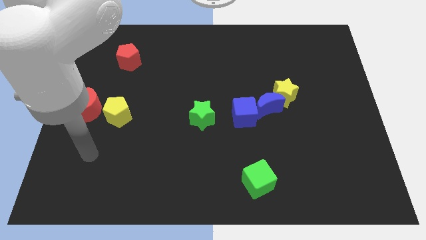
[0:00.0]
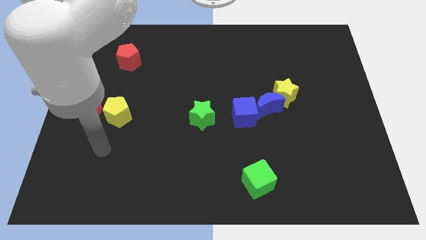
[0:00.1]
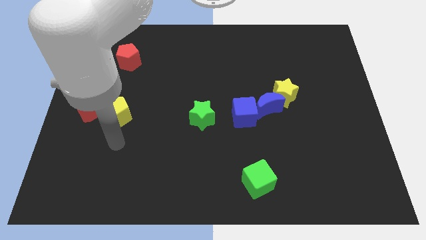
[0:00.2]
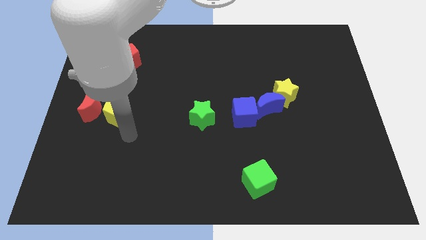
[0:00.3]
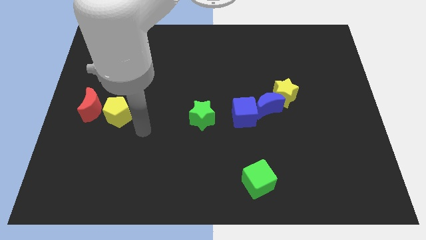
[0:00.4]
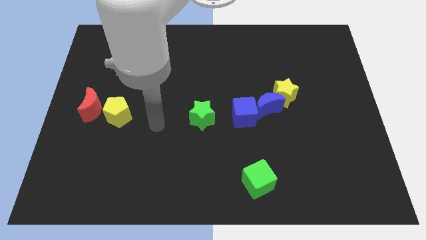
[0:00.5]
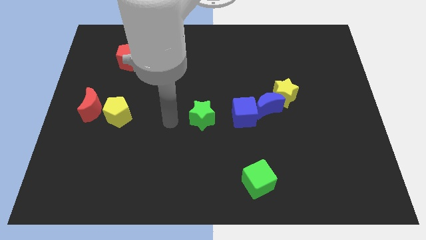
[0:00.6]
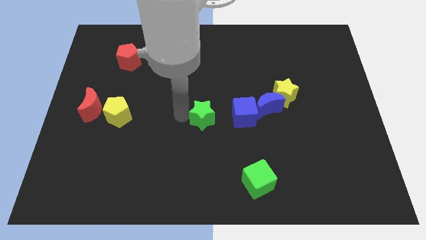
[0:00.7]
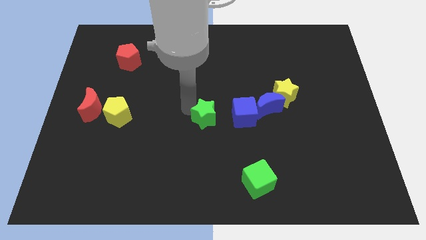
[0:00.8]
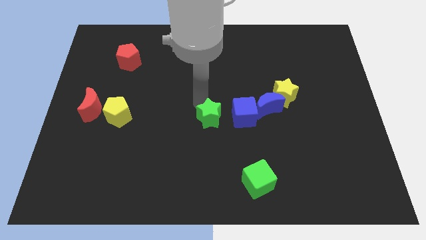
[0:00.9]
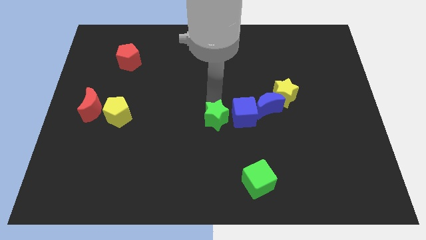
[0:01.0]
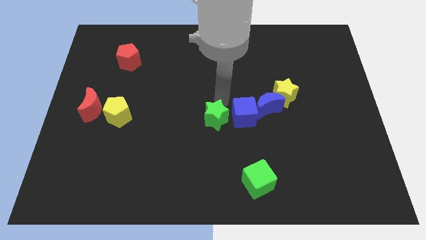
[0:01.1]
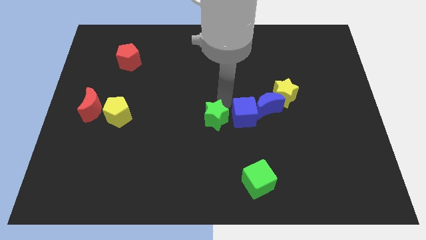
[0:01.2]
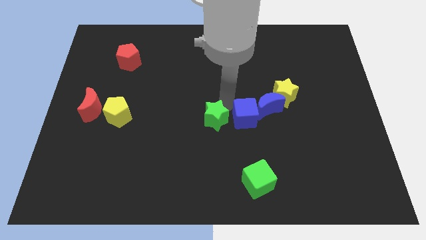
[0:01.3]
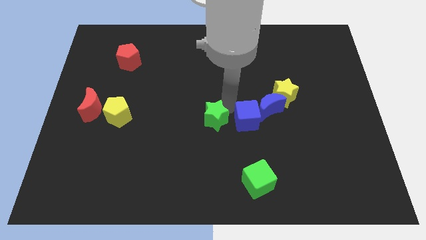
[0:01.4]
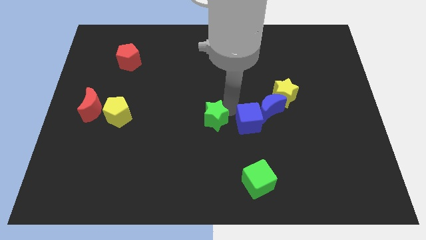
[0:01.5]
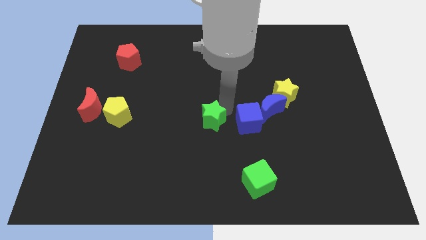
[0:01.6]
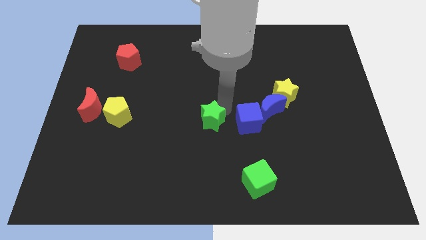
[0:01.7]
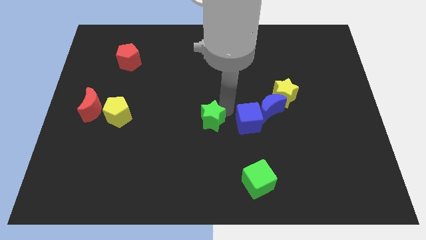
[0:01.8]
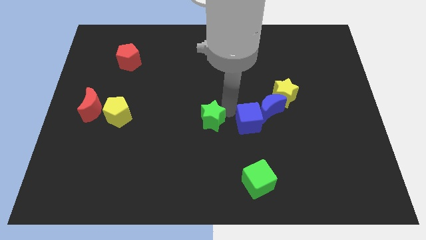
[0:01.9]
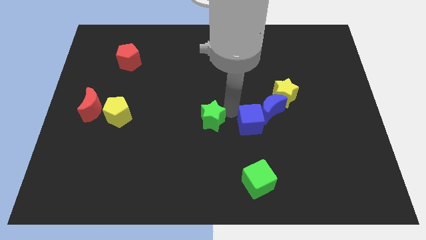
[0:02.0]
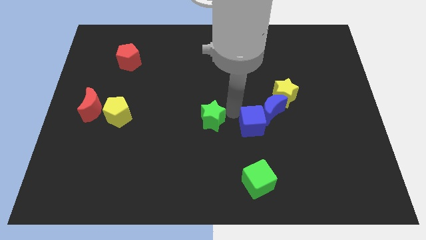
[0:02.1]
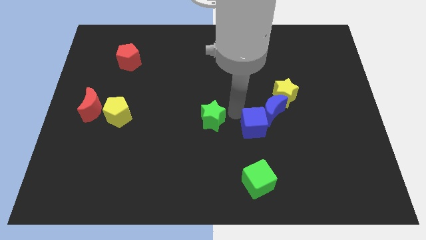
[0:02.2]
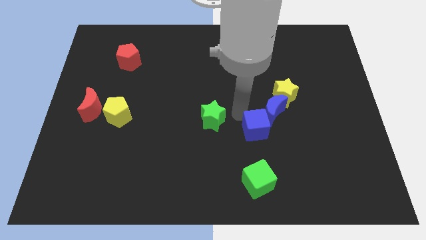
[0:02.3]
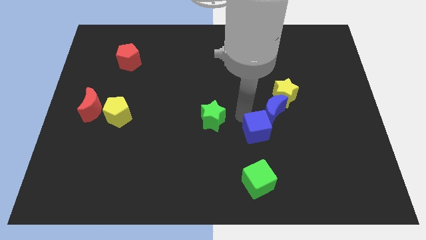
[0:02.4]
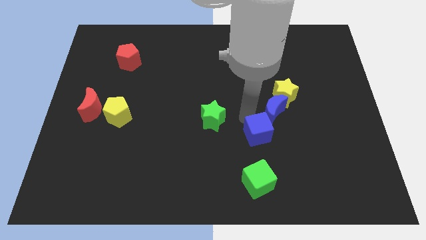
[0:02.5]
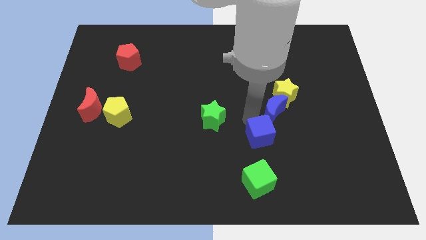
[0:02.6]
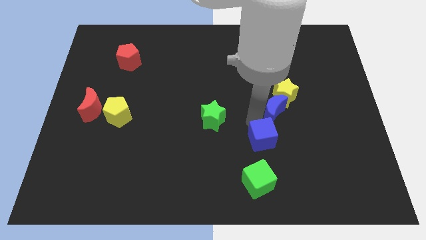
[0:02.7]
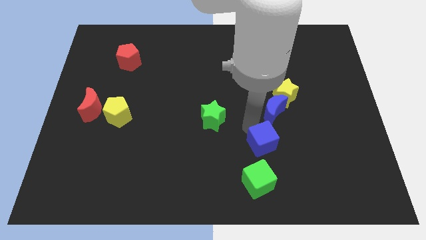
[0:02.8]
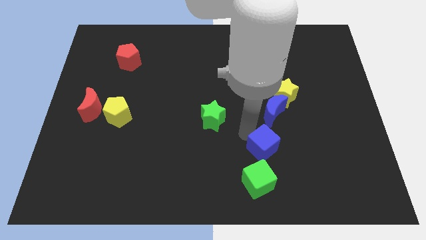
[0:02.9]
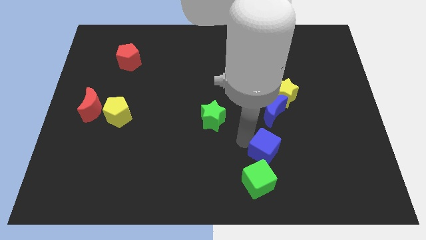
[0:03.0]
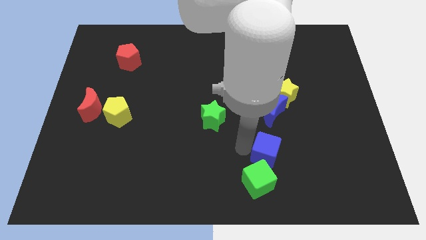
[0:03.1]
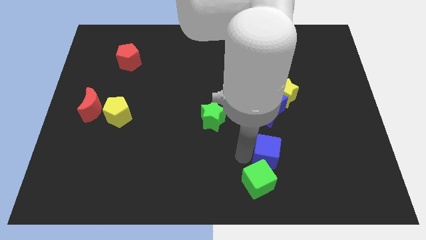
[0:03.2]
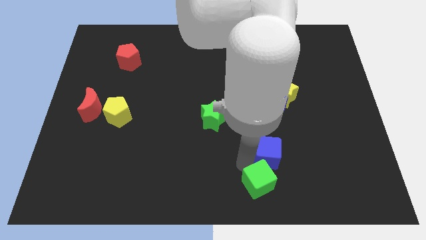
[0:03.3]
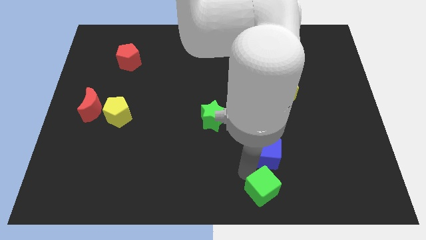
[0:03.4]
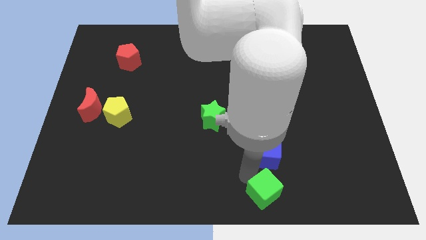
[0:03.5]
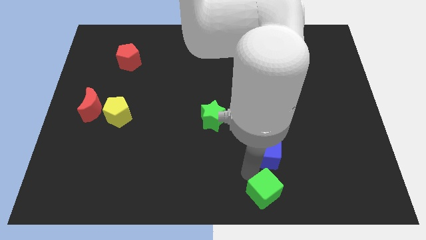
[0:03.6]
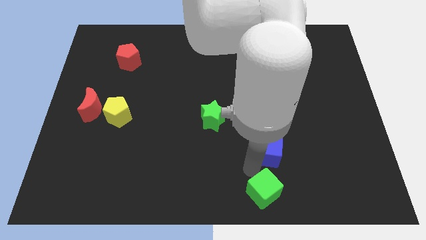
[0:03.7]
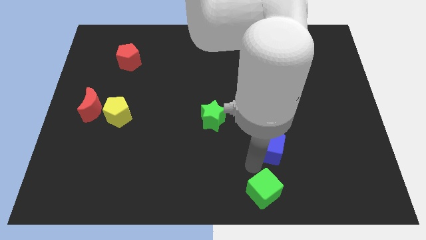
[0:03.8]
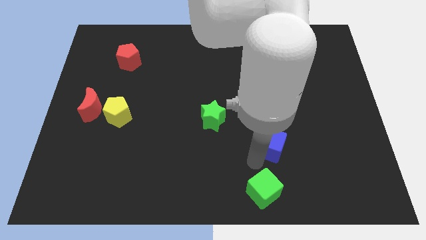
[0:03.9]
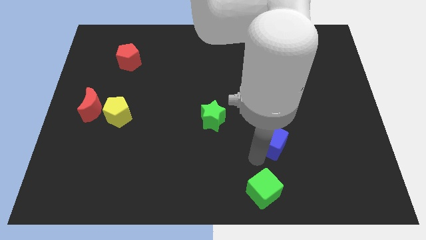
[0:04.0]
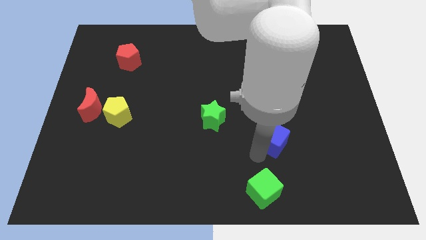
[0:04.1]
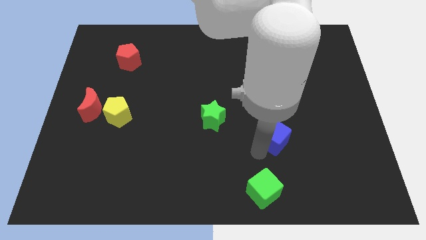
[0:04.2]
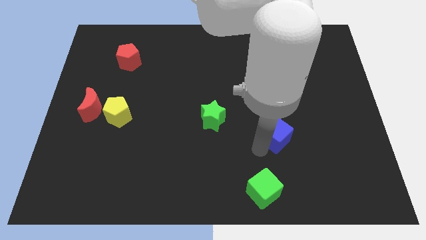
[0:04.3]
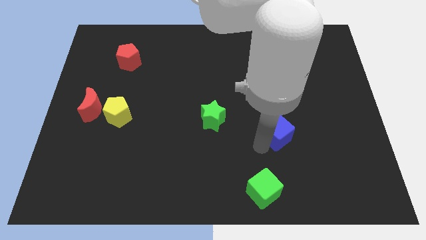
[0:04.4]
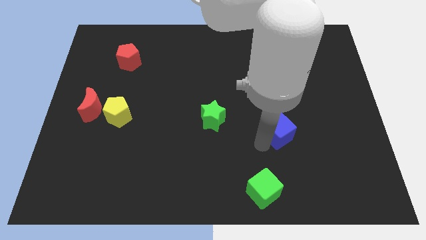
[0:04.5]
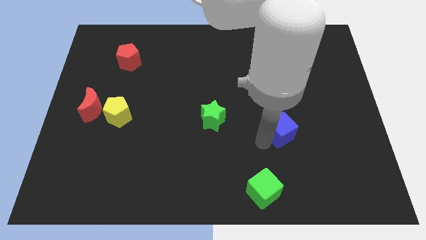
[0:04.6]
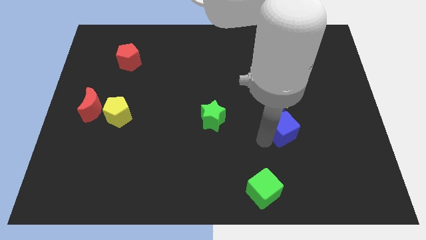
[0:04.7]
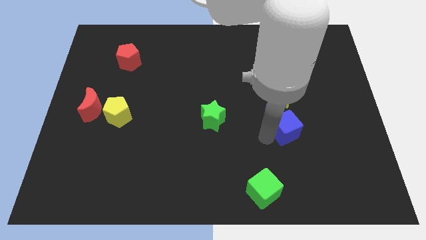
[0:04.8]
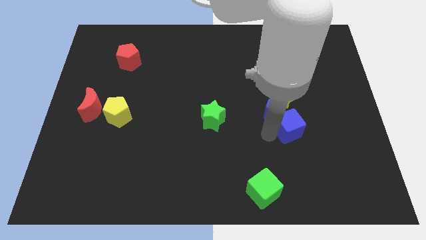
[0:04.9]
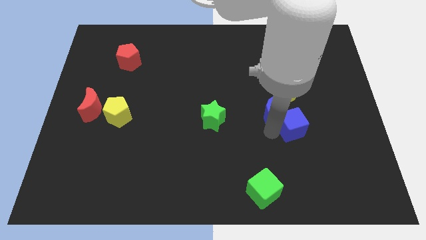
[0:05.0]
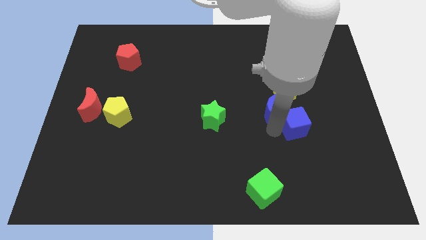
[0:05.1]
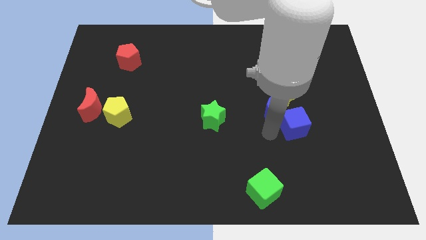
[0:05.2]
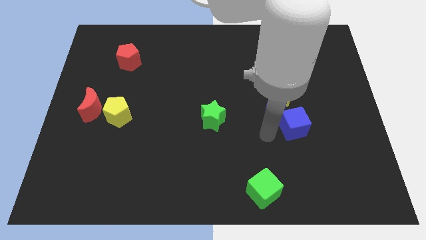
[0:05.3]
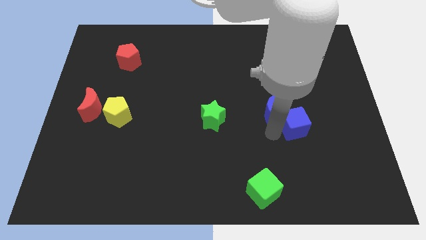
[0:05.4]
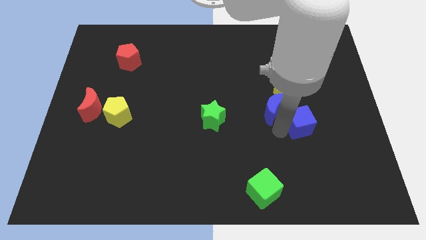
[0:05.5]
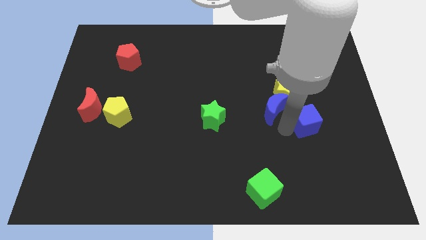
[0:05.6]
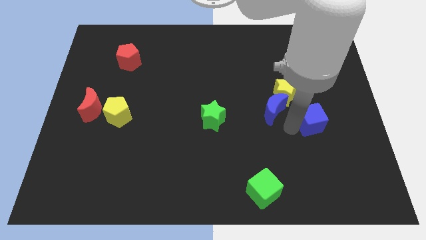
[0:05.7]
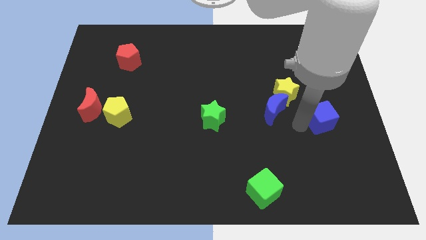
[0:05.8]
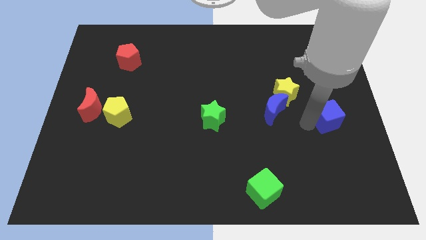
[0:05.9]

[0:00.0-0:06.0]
push the blue cube to the center right

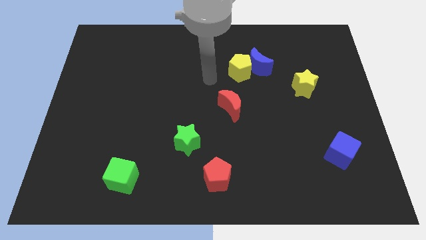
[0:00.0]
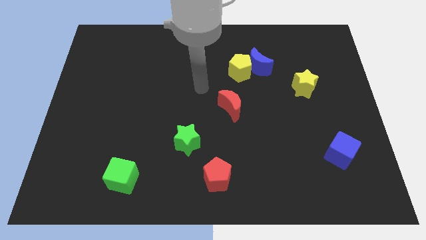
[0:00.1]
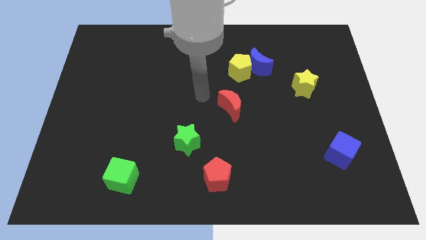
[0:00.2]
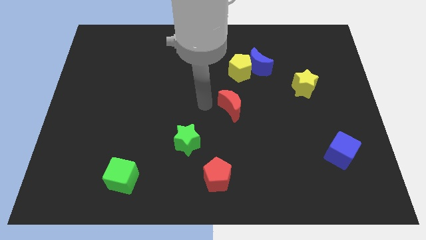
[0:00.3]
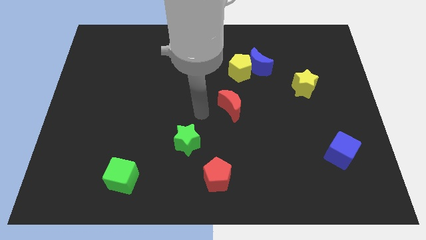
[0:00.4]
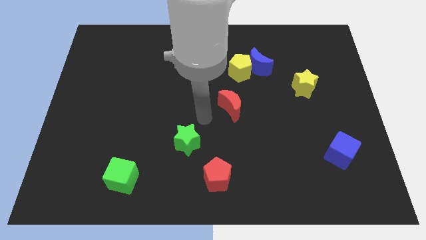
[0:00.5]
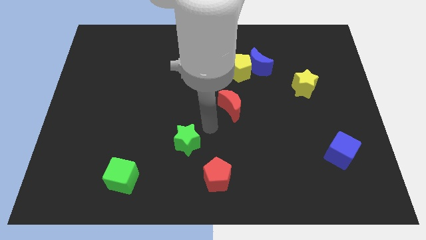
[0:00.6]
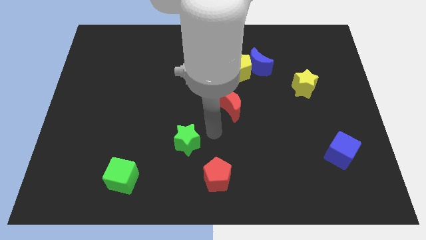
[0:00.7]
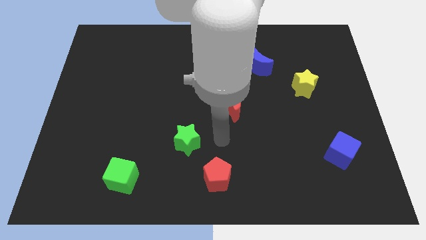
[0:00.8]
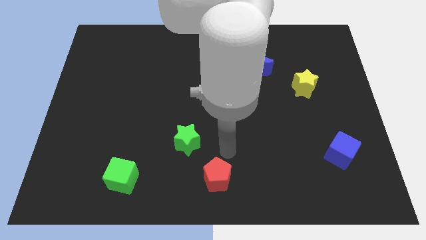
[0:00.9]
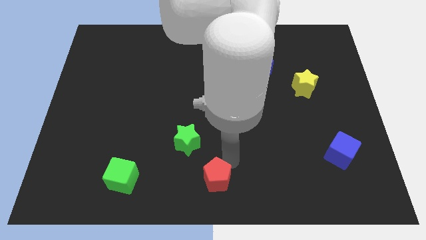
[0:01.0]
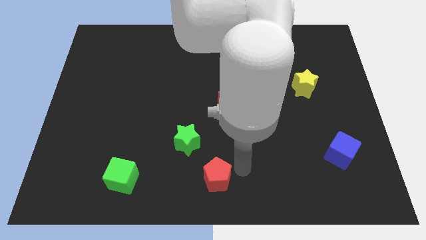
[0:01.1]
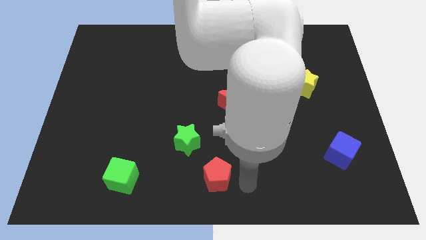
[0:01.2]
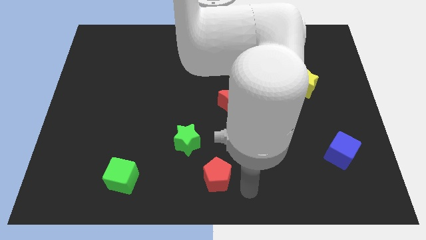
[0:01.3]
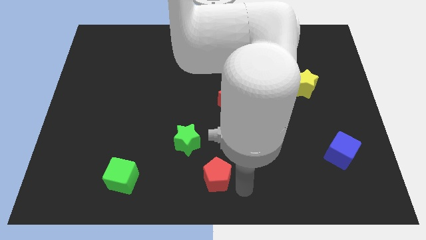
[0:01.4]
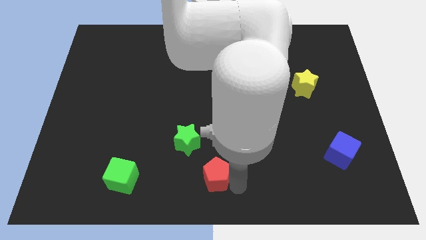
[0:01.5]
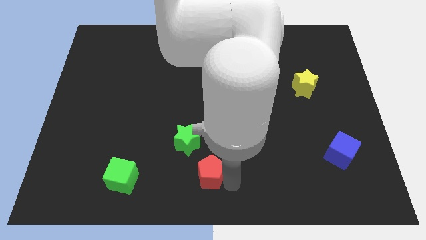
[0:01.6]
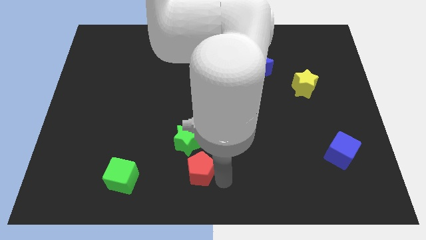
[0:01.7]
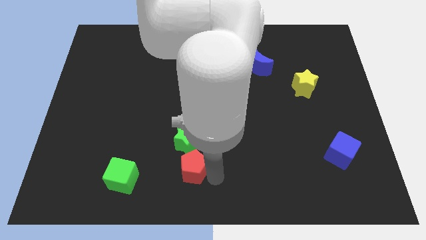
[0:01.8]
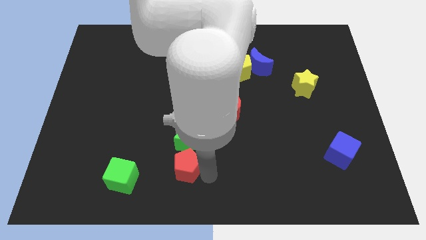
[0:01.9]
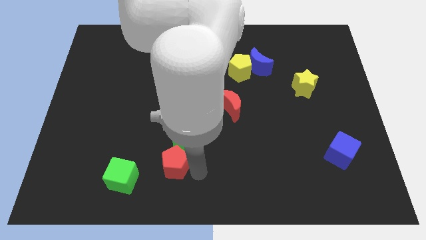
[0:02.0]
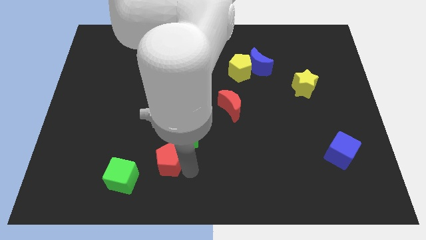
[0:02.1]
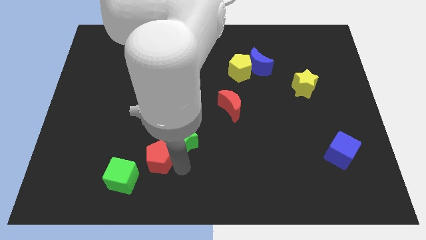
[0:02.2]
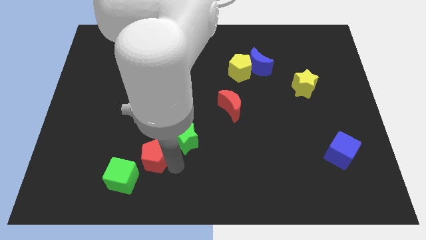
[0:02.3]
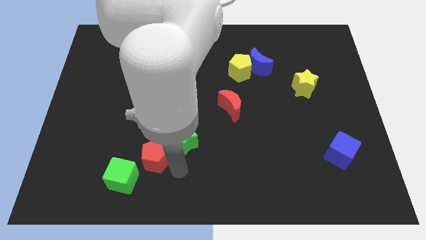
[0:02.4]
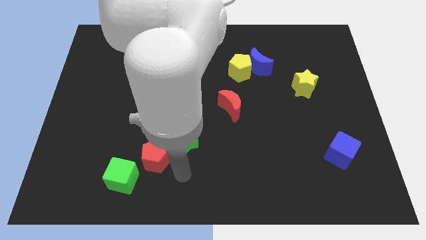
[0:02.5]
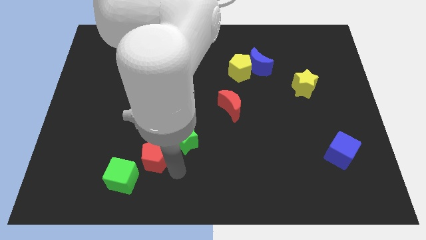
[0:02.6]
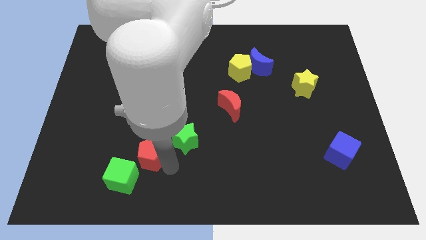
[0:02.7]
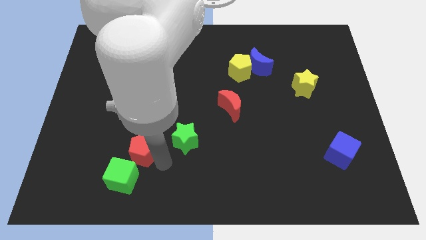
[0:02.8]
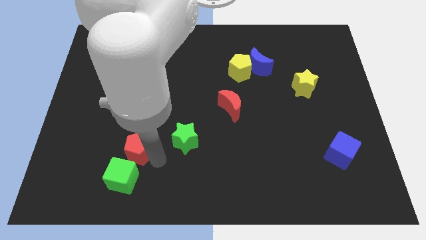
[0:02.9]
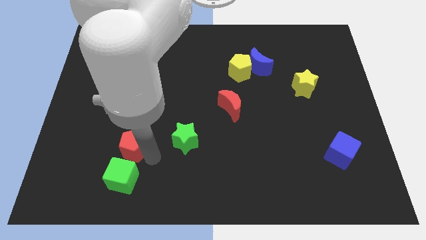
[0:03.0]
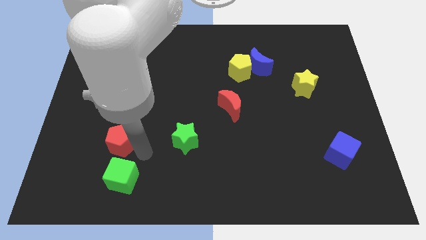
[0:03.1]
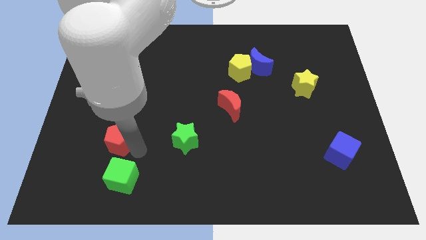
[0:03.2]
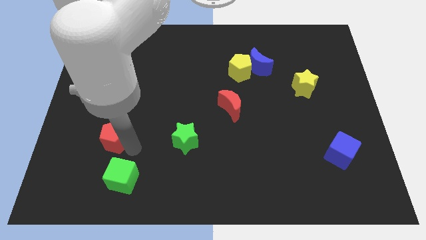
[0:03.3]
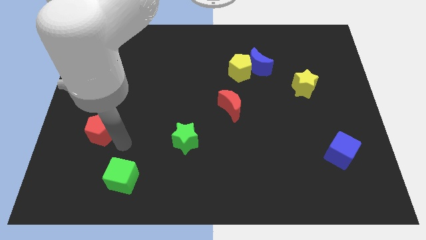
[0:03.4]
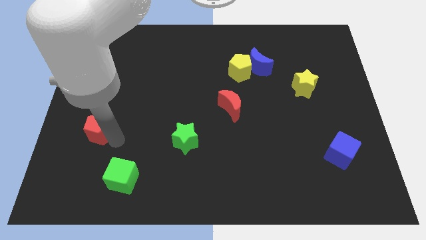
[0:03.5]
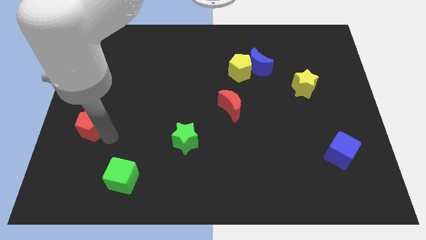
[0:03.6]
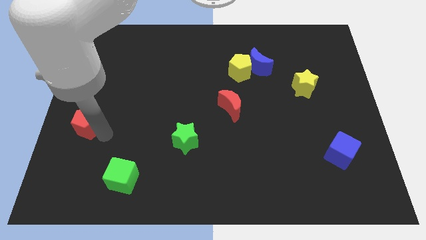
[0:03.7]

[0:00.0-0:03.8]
put the red pentagon to the left side
